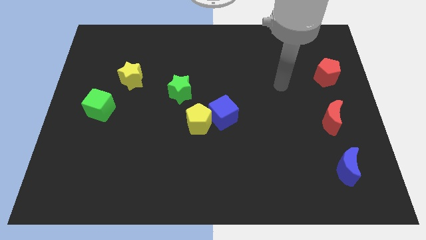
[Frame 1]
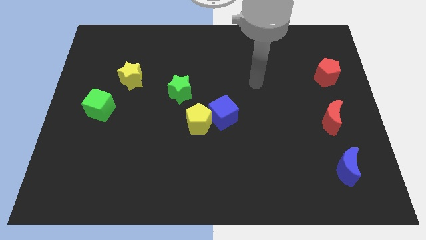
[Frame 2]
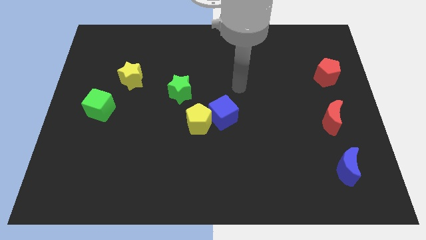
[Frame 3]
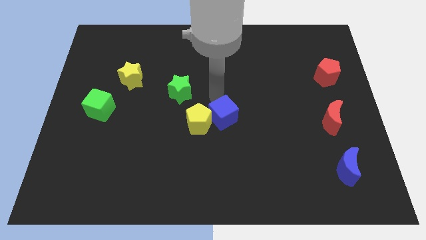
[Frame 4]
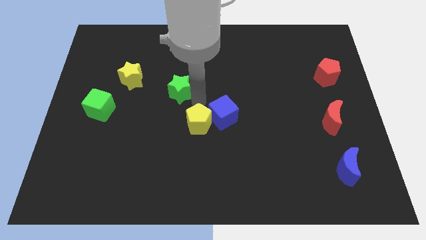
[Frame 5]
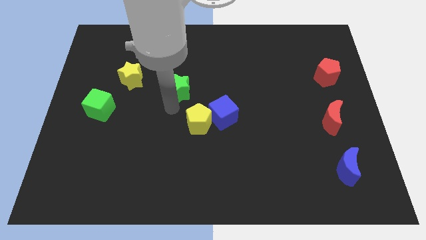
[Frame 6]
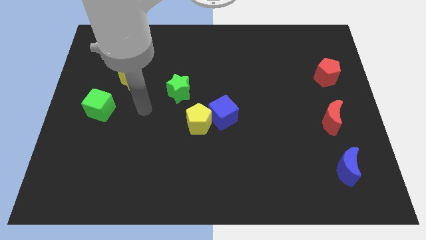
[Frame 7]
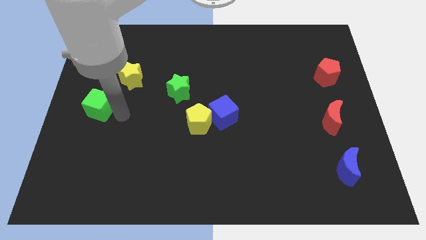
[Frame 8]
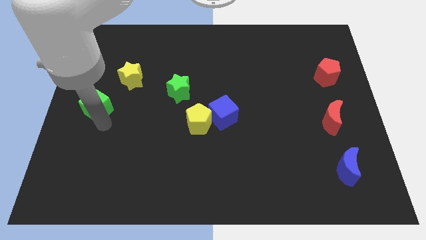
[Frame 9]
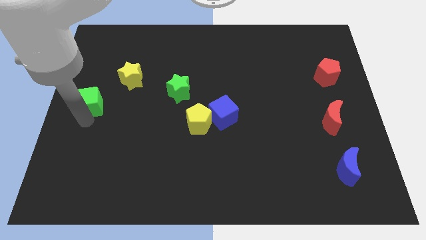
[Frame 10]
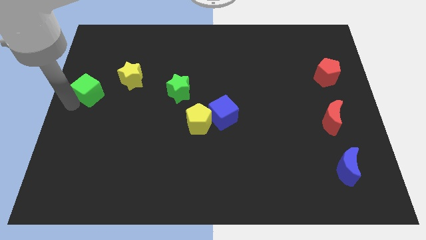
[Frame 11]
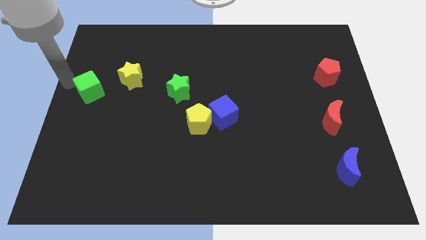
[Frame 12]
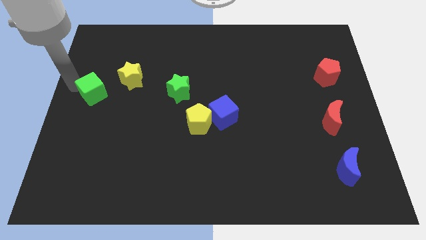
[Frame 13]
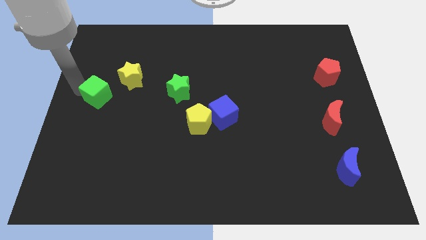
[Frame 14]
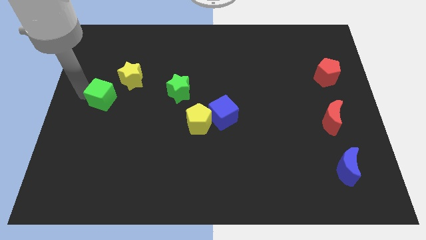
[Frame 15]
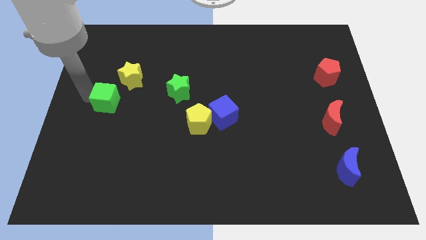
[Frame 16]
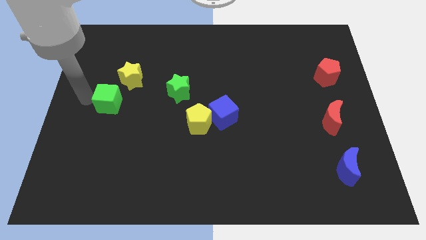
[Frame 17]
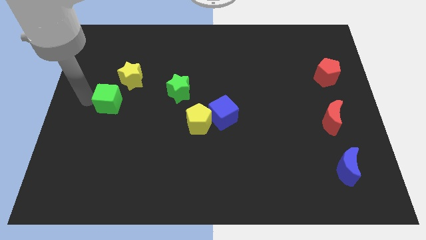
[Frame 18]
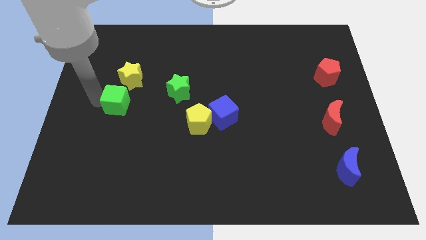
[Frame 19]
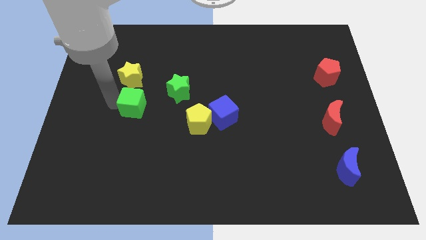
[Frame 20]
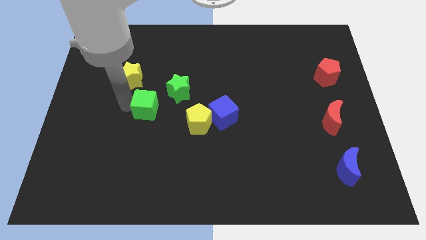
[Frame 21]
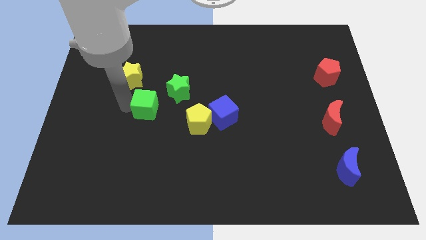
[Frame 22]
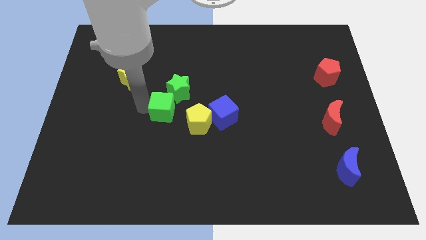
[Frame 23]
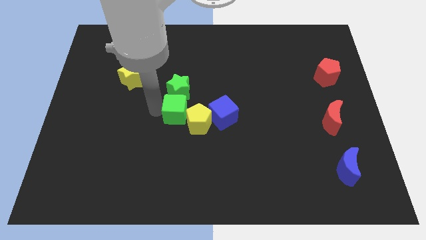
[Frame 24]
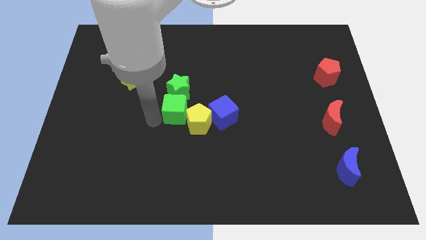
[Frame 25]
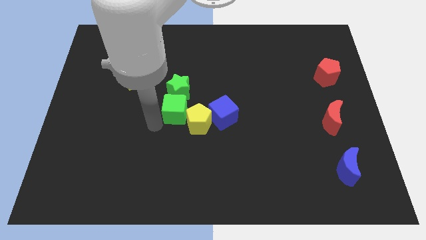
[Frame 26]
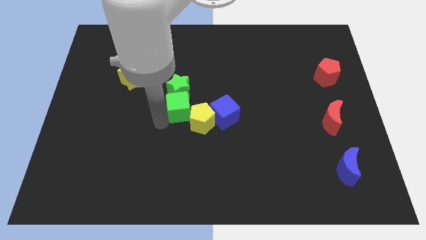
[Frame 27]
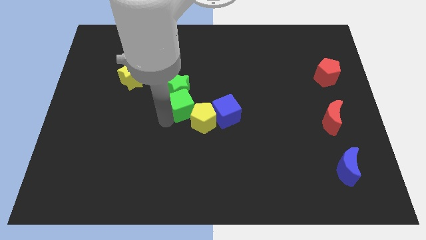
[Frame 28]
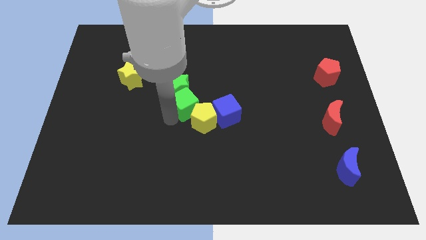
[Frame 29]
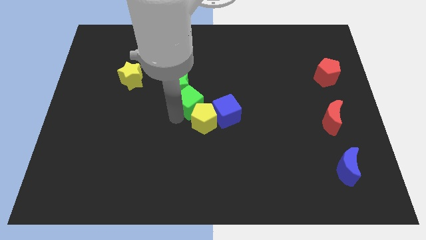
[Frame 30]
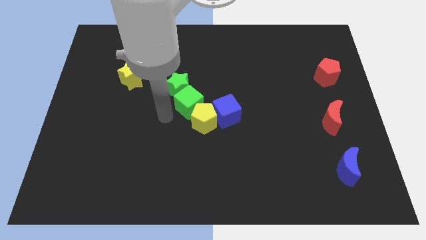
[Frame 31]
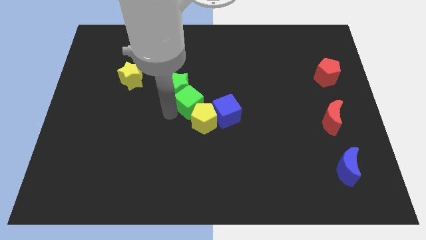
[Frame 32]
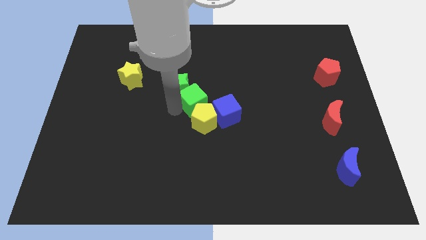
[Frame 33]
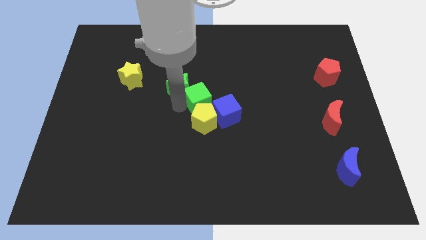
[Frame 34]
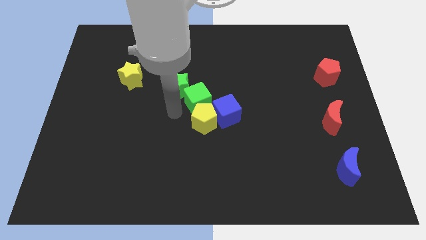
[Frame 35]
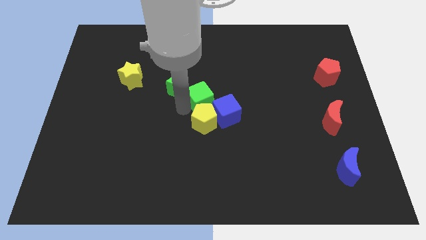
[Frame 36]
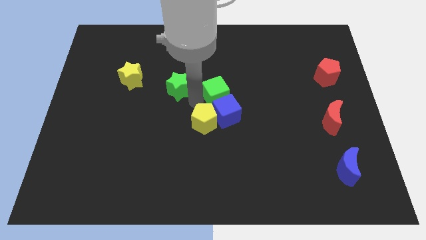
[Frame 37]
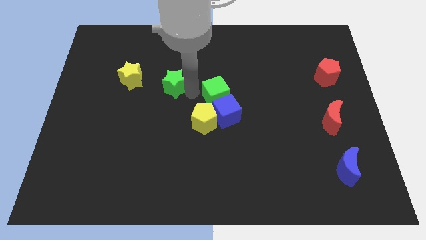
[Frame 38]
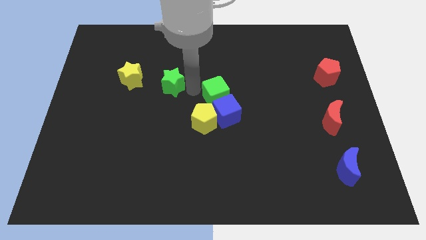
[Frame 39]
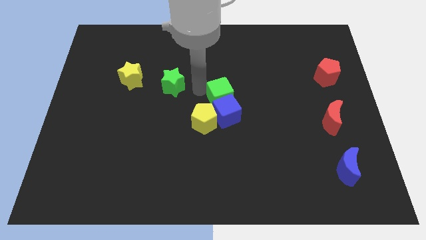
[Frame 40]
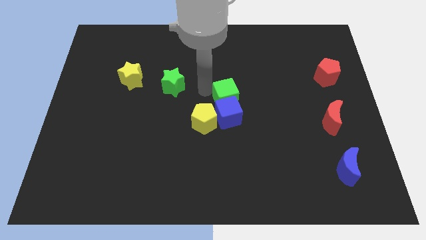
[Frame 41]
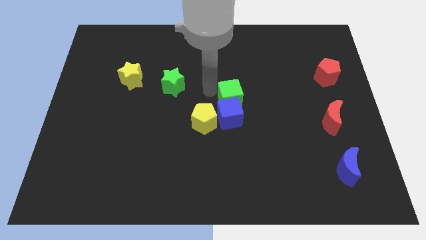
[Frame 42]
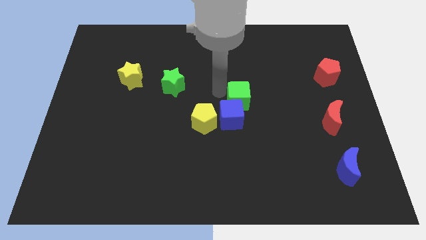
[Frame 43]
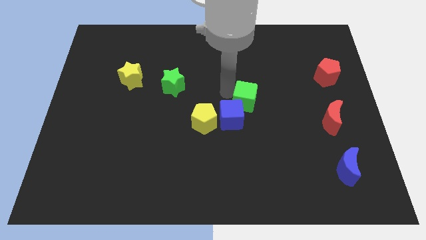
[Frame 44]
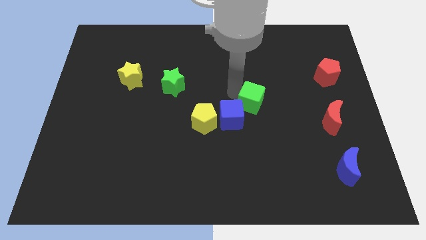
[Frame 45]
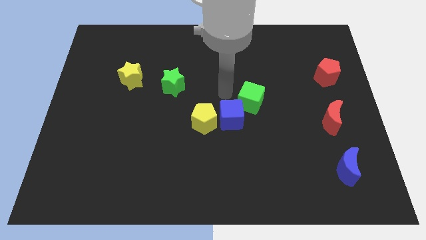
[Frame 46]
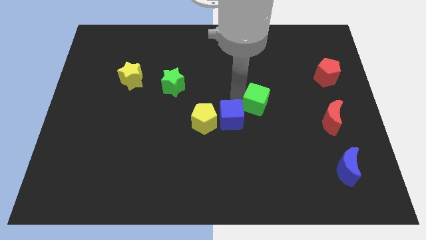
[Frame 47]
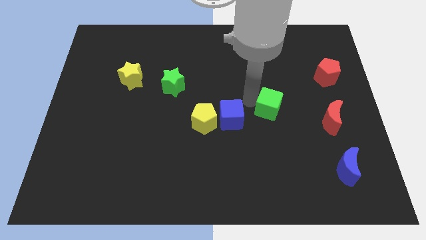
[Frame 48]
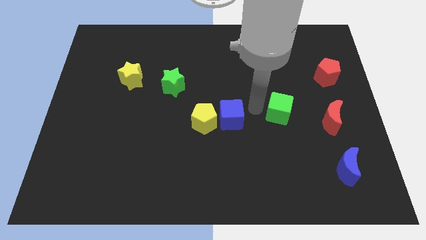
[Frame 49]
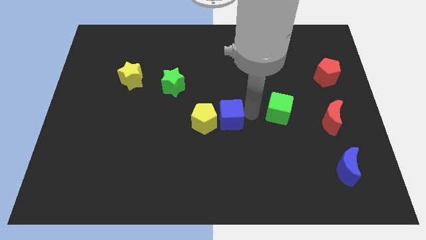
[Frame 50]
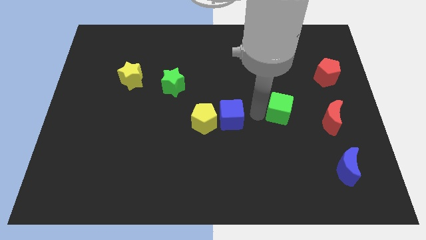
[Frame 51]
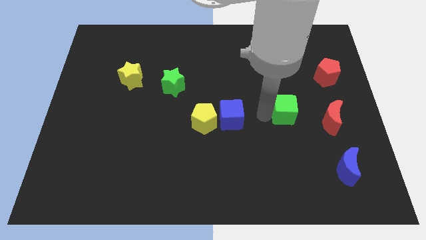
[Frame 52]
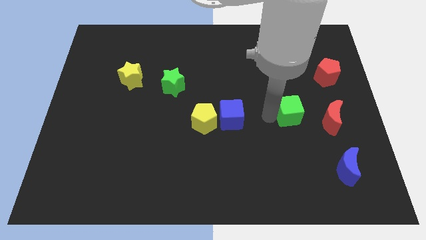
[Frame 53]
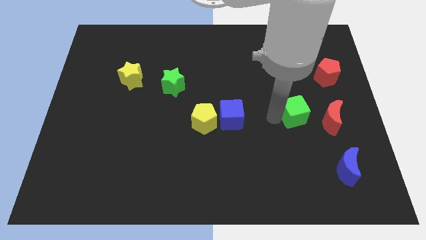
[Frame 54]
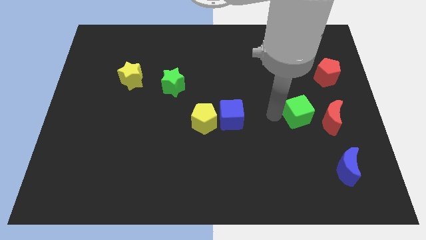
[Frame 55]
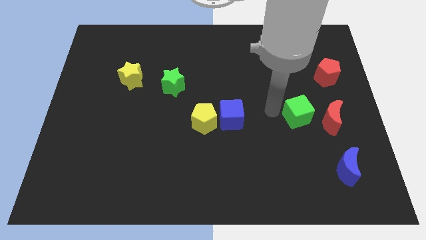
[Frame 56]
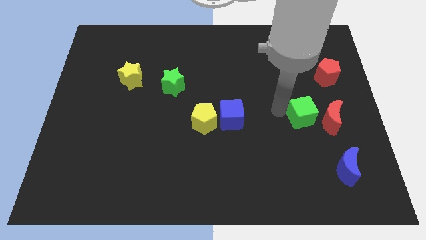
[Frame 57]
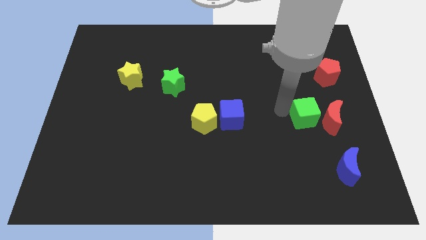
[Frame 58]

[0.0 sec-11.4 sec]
put the green cube towards the red moon
